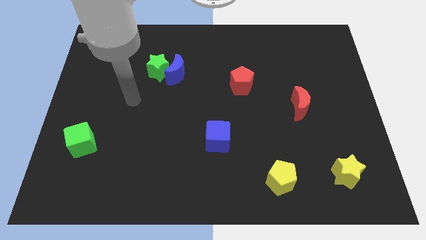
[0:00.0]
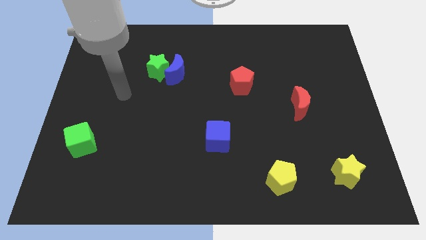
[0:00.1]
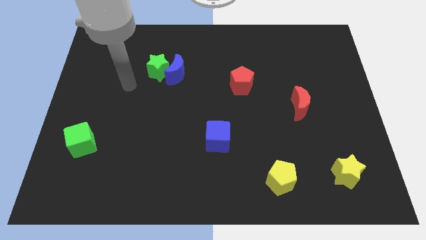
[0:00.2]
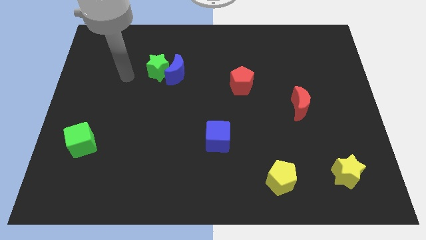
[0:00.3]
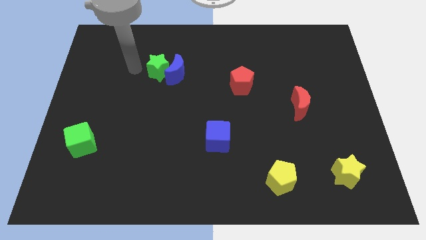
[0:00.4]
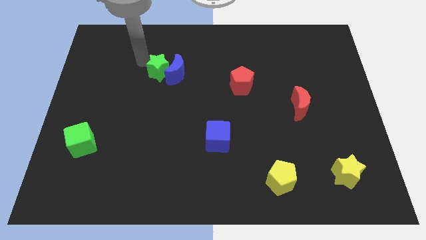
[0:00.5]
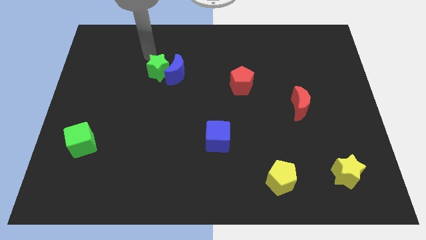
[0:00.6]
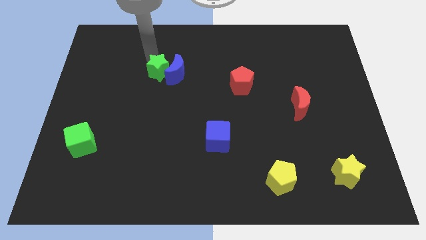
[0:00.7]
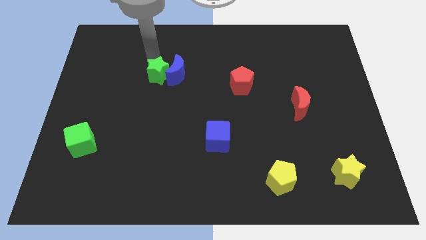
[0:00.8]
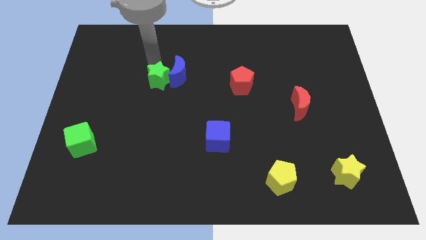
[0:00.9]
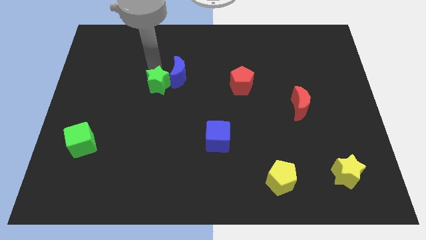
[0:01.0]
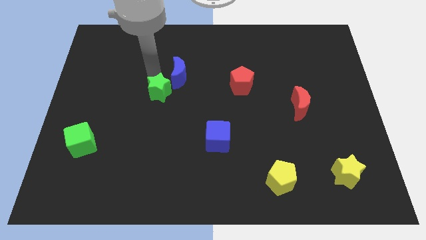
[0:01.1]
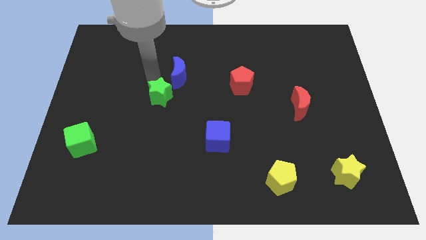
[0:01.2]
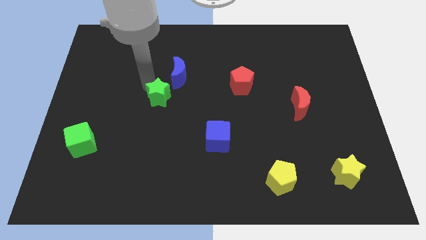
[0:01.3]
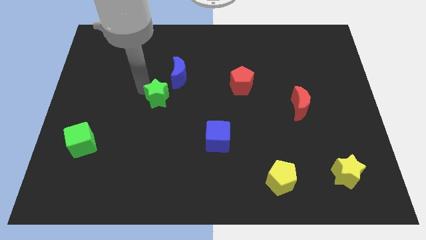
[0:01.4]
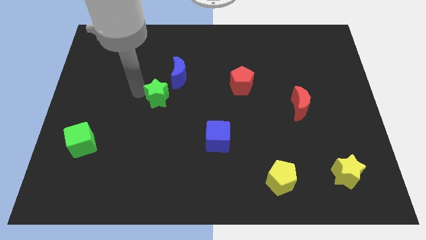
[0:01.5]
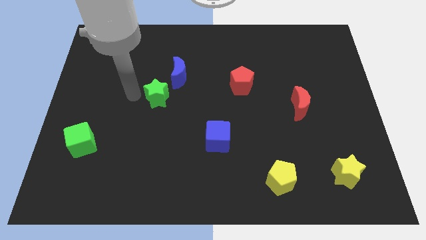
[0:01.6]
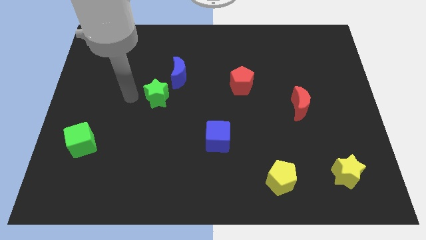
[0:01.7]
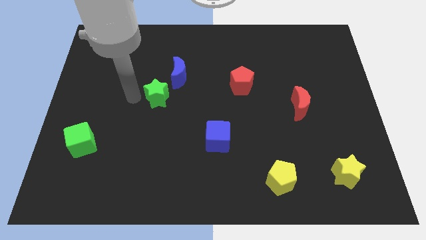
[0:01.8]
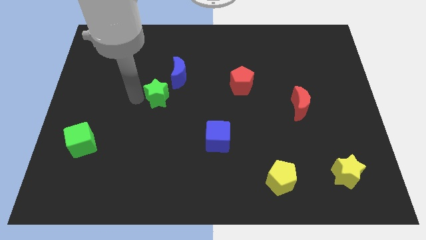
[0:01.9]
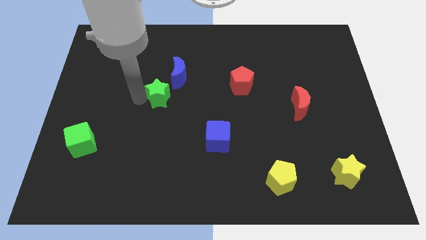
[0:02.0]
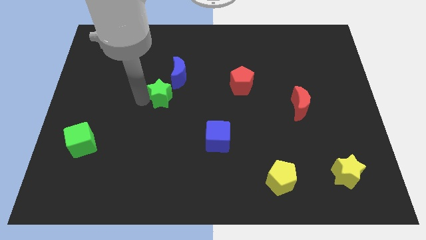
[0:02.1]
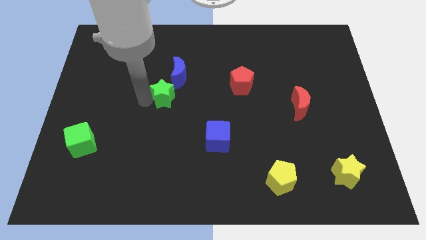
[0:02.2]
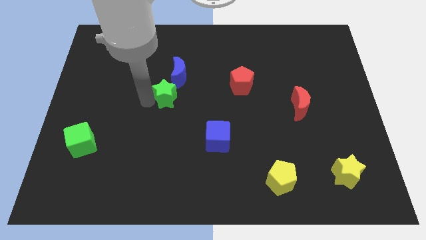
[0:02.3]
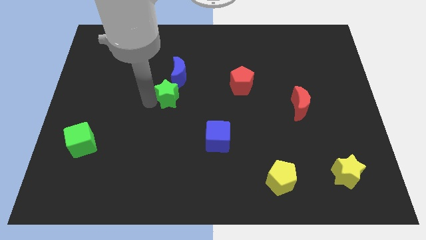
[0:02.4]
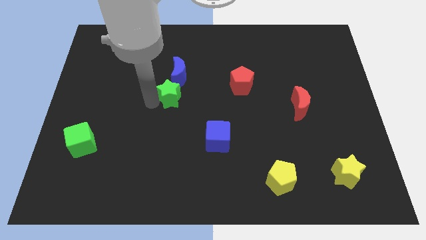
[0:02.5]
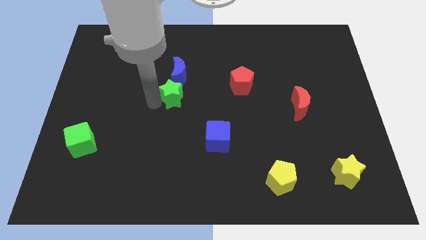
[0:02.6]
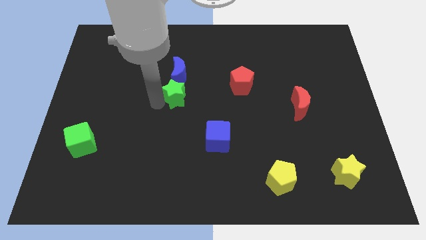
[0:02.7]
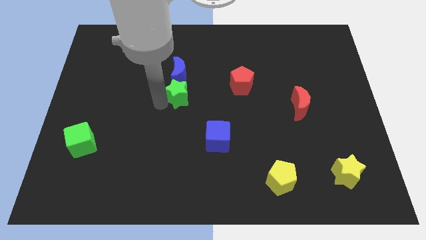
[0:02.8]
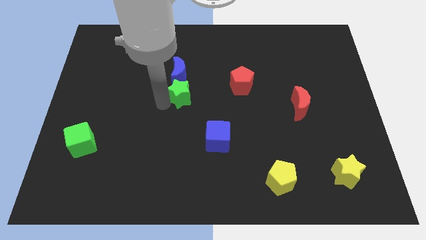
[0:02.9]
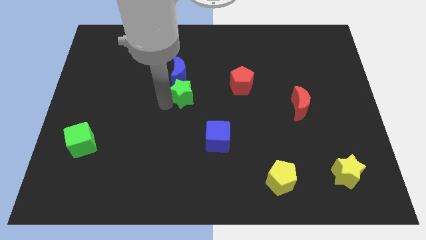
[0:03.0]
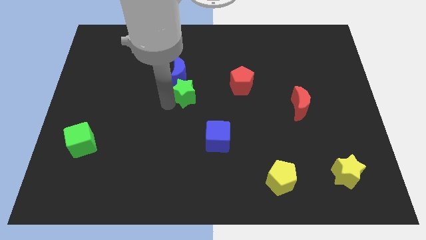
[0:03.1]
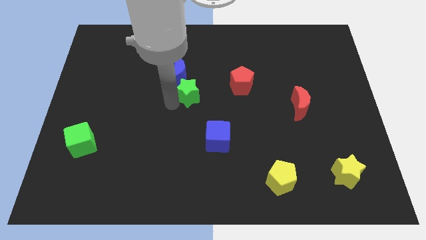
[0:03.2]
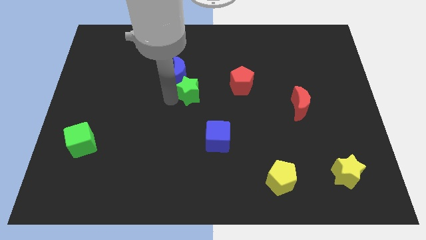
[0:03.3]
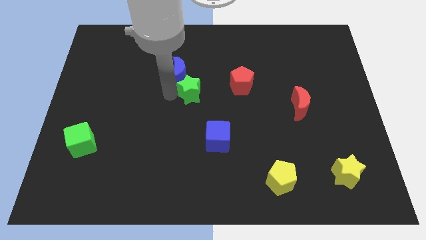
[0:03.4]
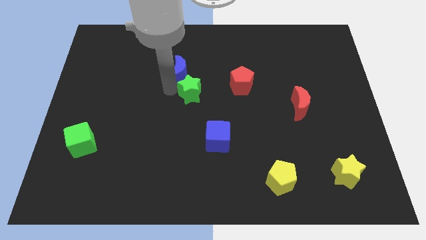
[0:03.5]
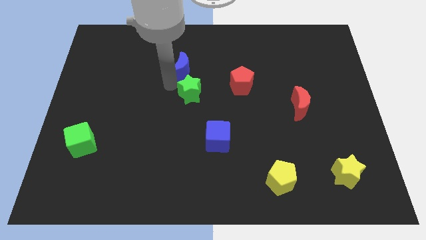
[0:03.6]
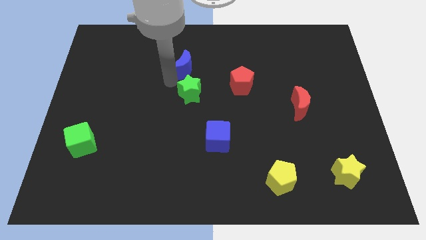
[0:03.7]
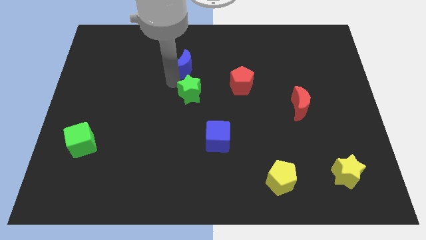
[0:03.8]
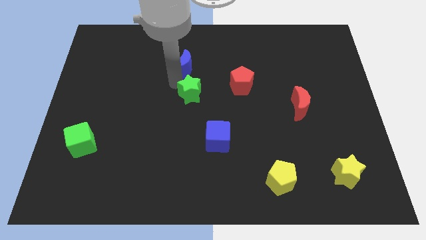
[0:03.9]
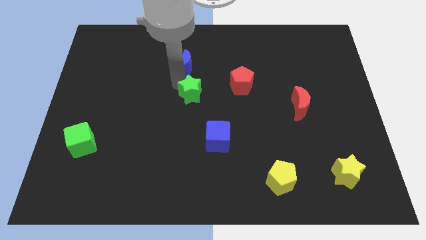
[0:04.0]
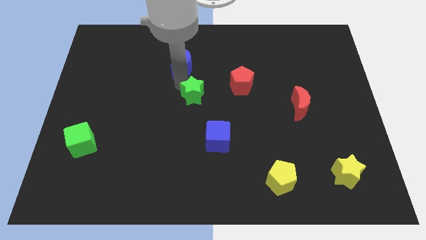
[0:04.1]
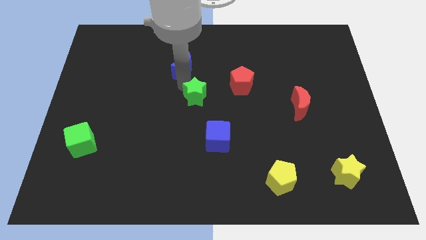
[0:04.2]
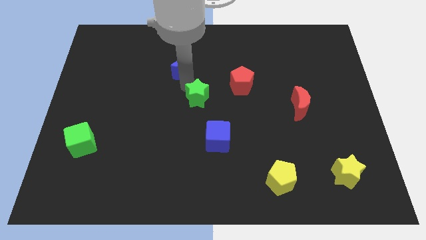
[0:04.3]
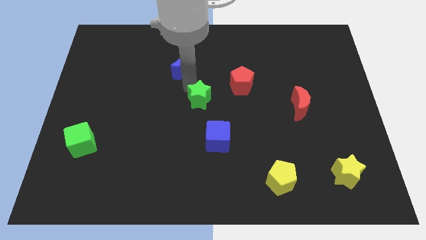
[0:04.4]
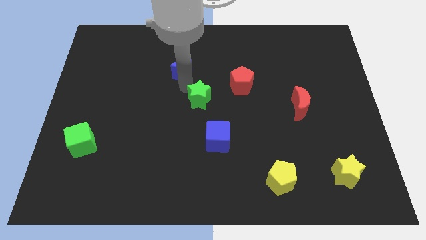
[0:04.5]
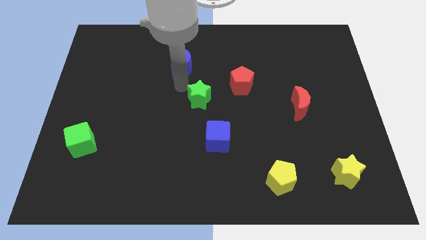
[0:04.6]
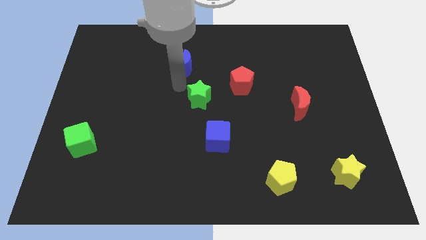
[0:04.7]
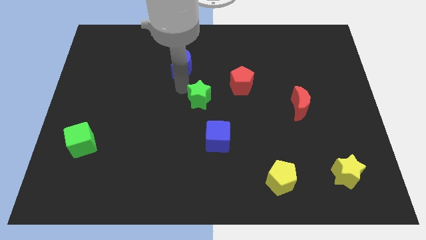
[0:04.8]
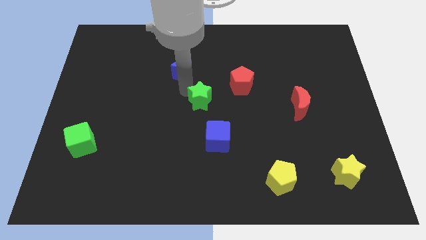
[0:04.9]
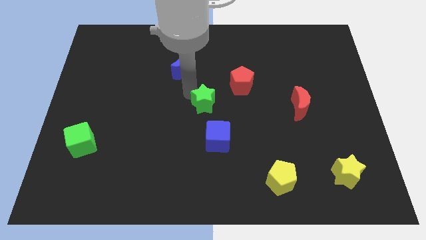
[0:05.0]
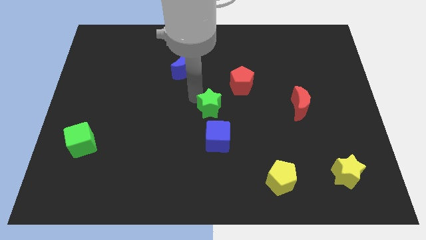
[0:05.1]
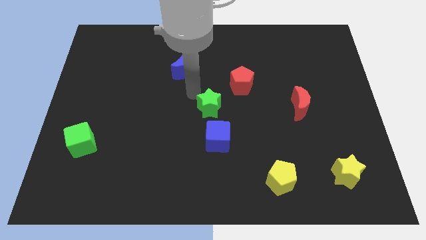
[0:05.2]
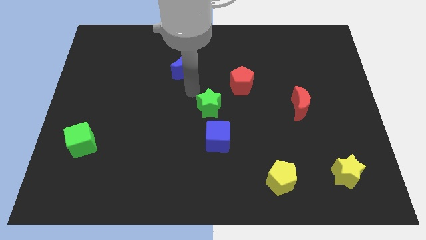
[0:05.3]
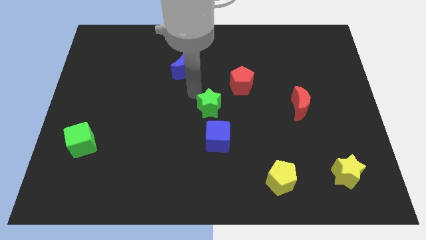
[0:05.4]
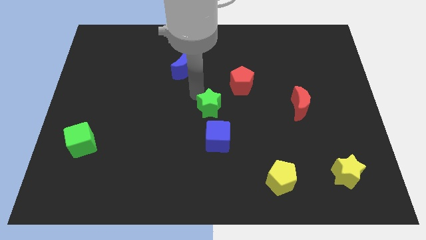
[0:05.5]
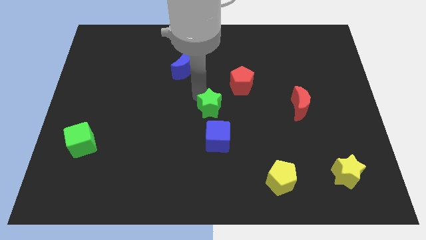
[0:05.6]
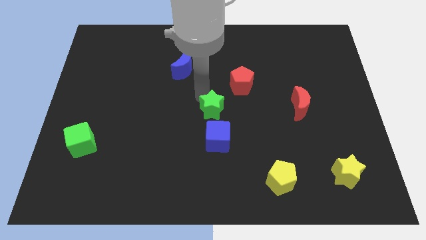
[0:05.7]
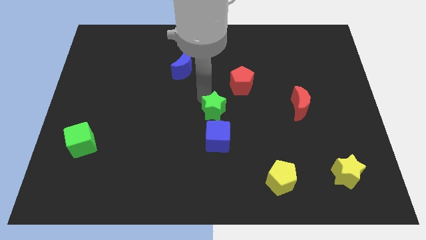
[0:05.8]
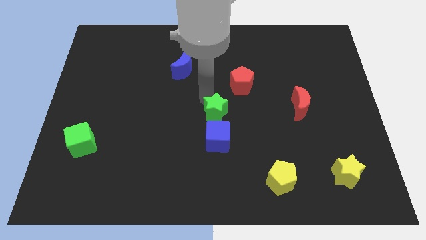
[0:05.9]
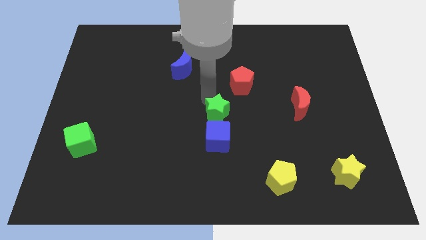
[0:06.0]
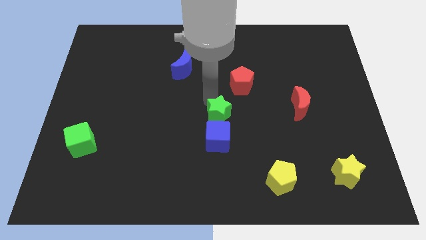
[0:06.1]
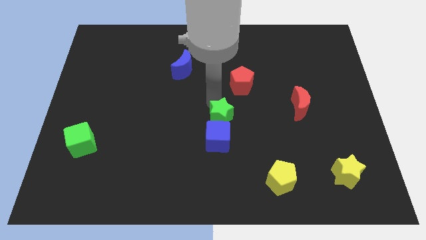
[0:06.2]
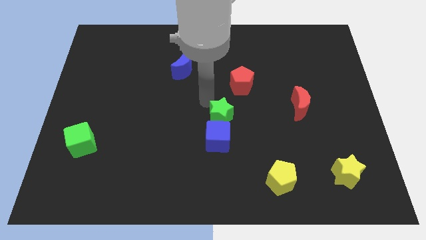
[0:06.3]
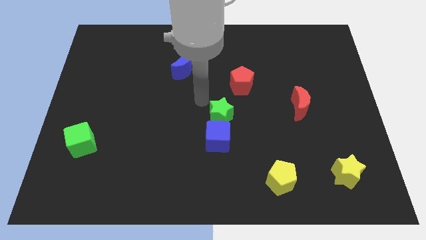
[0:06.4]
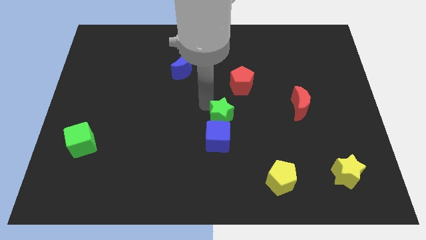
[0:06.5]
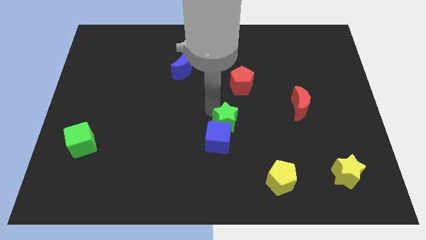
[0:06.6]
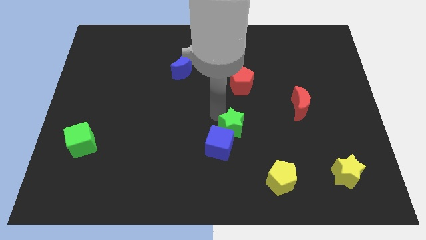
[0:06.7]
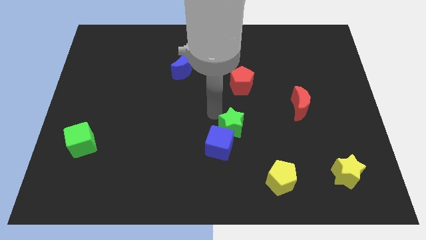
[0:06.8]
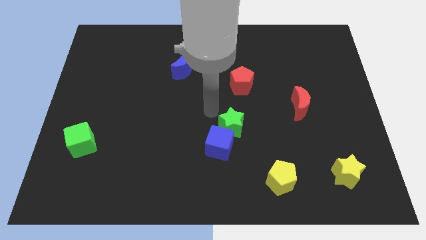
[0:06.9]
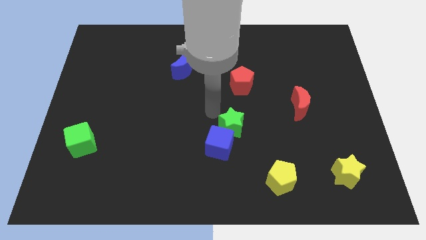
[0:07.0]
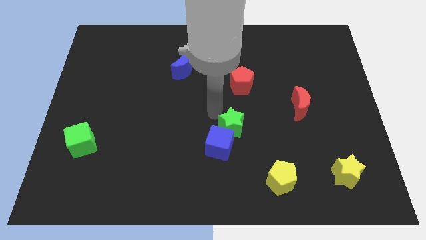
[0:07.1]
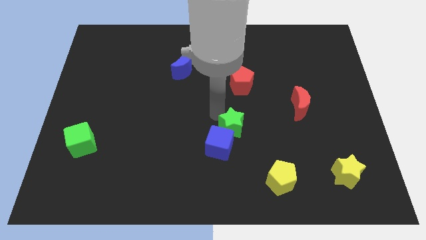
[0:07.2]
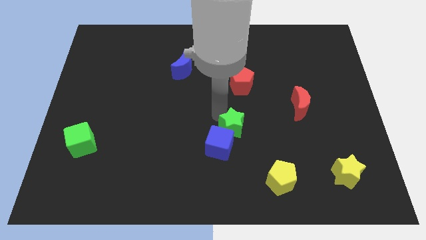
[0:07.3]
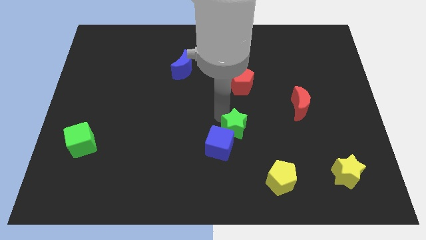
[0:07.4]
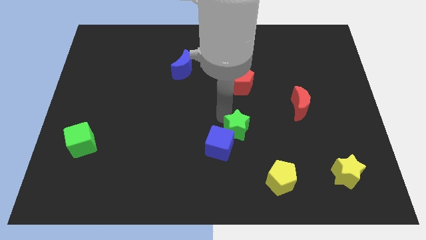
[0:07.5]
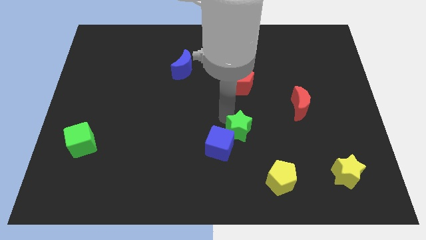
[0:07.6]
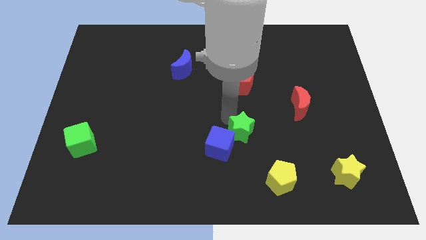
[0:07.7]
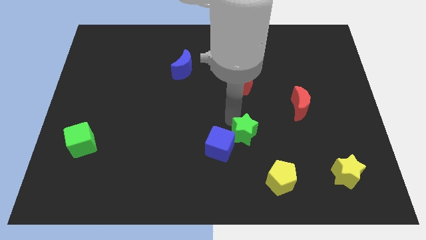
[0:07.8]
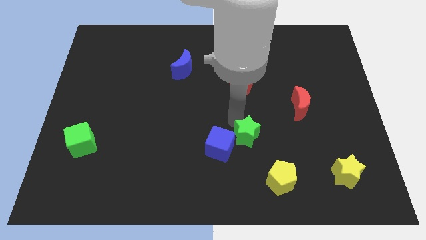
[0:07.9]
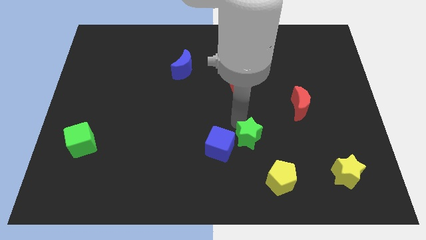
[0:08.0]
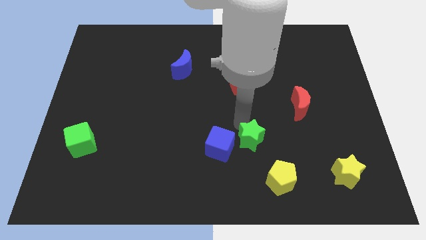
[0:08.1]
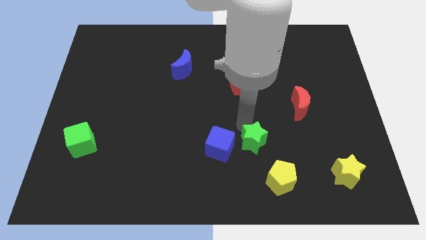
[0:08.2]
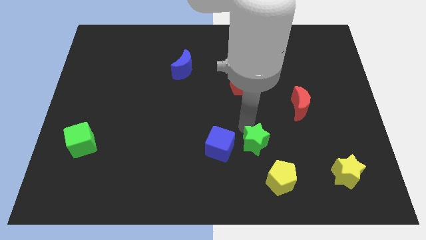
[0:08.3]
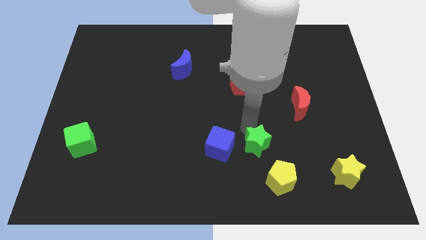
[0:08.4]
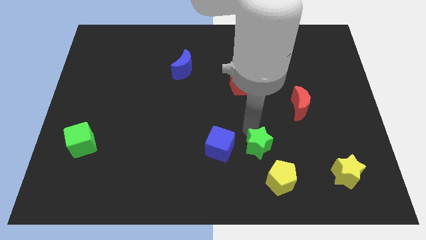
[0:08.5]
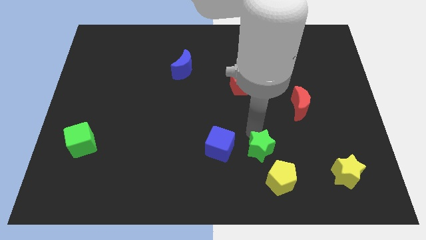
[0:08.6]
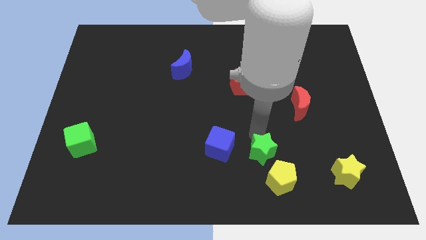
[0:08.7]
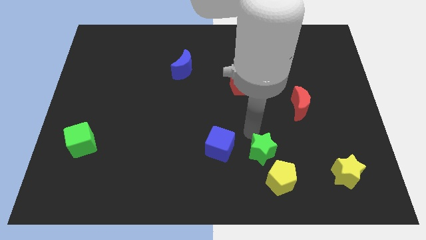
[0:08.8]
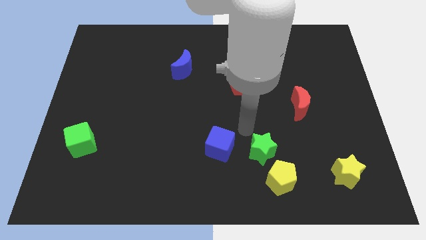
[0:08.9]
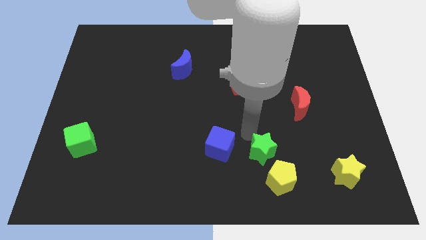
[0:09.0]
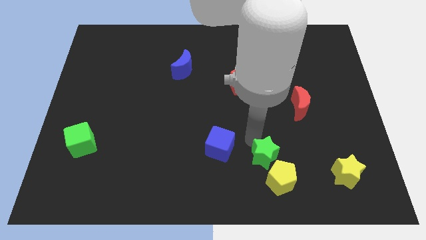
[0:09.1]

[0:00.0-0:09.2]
push the green star towards the yellow pentagon
